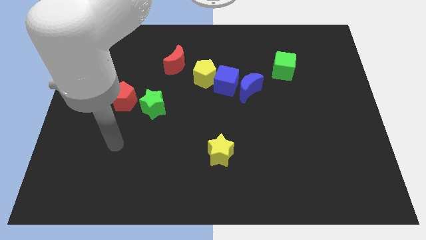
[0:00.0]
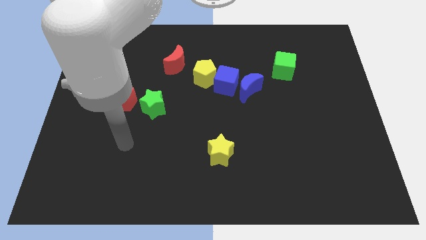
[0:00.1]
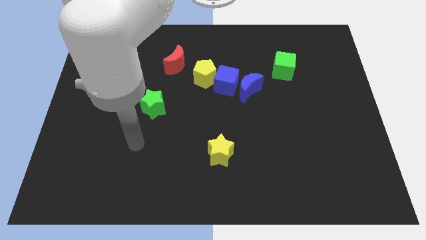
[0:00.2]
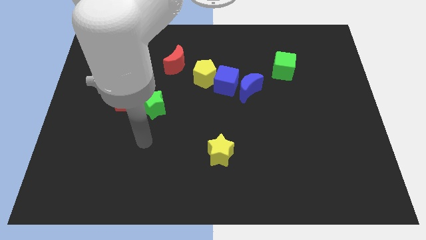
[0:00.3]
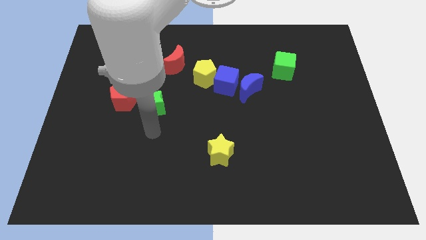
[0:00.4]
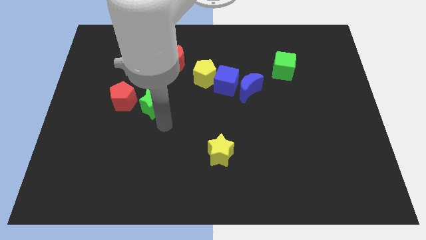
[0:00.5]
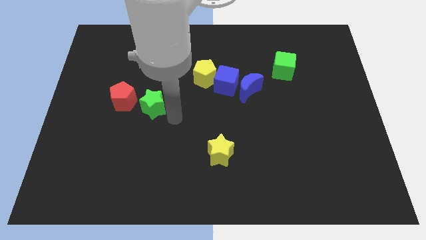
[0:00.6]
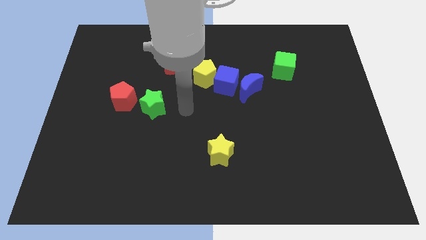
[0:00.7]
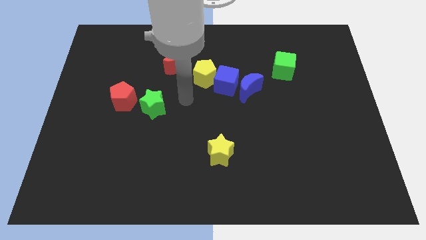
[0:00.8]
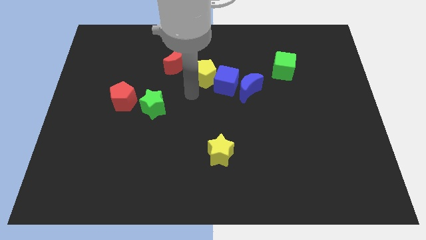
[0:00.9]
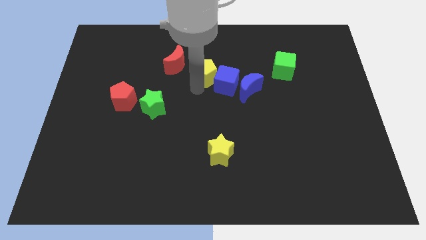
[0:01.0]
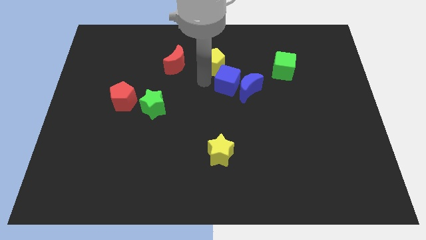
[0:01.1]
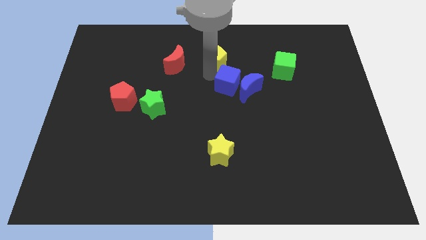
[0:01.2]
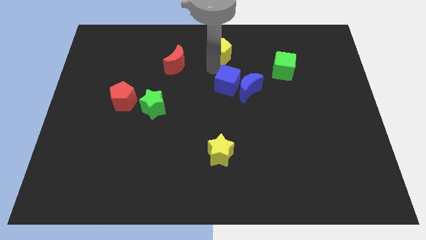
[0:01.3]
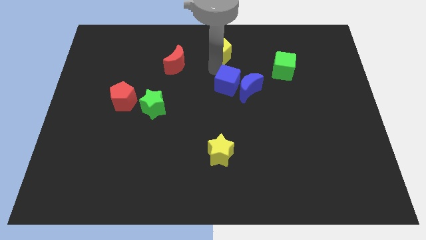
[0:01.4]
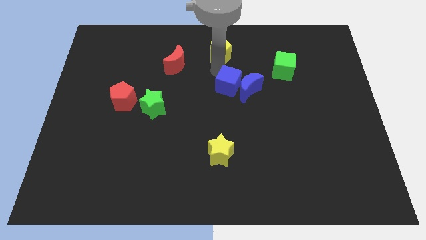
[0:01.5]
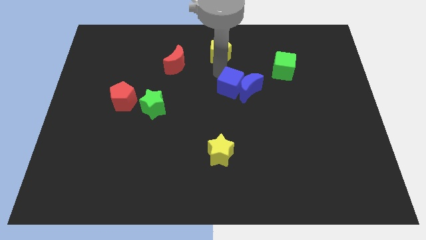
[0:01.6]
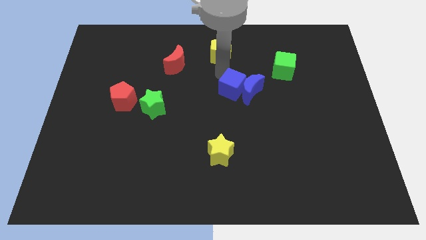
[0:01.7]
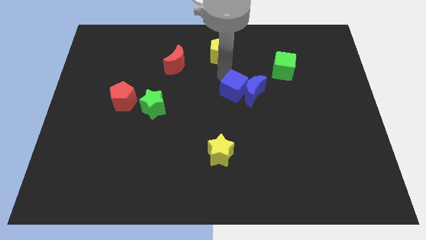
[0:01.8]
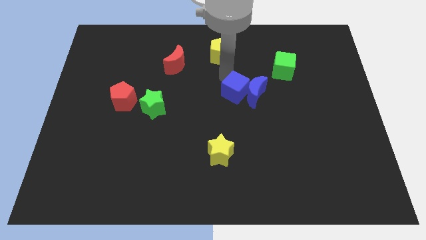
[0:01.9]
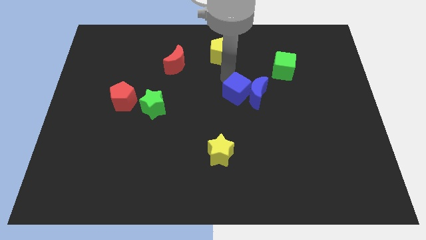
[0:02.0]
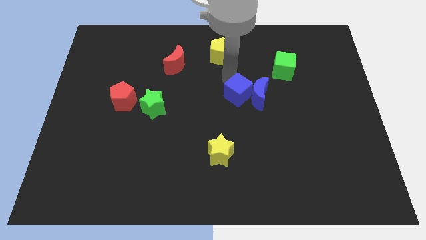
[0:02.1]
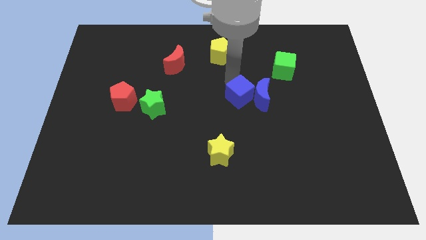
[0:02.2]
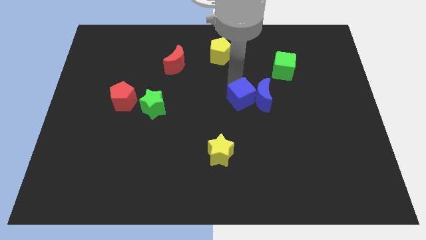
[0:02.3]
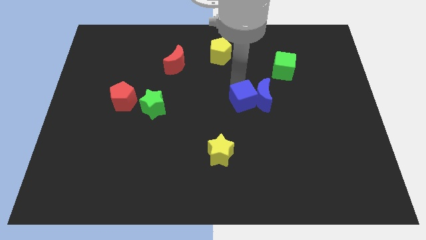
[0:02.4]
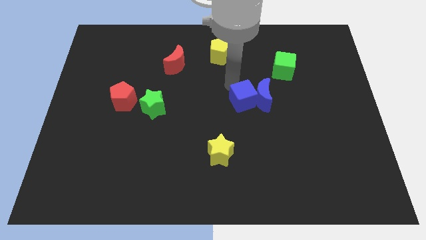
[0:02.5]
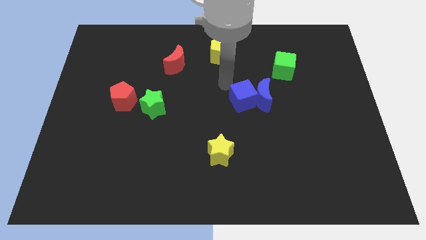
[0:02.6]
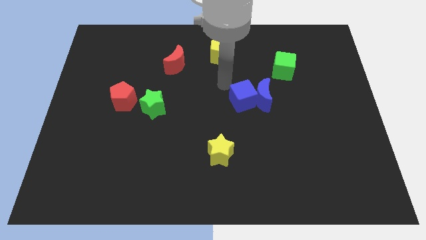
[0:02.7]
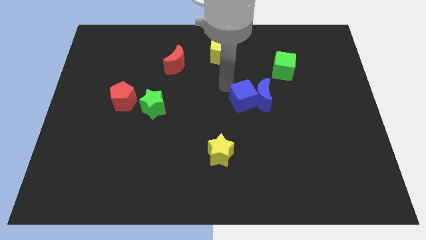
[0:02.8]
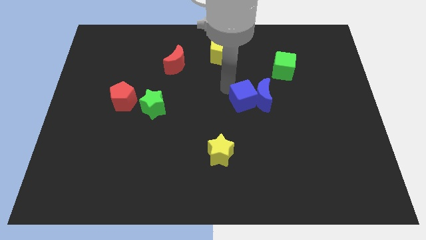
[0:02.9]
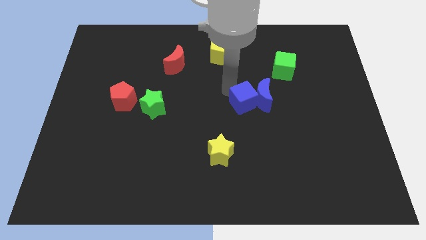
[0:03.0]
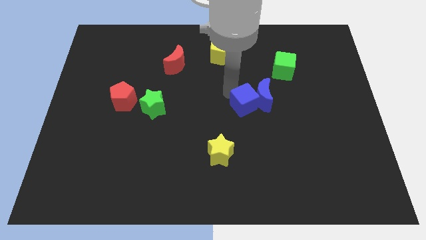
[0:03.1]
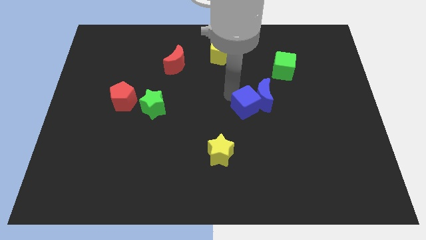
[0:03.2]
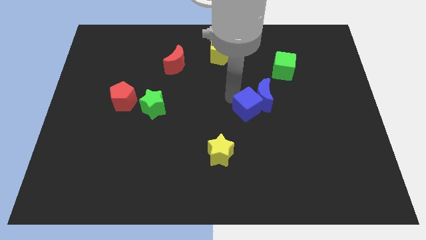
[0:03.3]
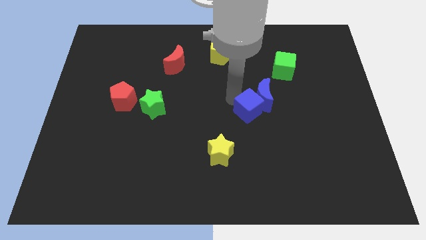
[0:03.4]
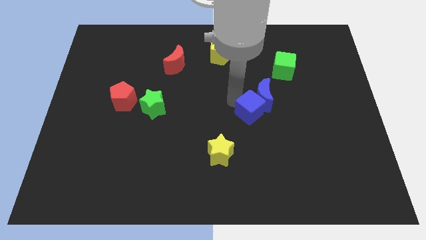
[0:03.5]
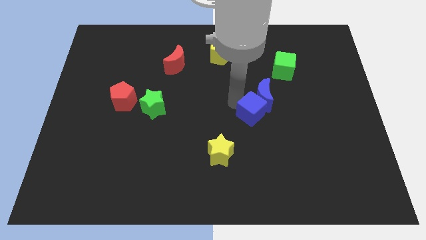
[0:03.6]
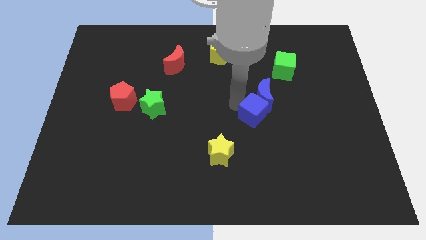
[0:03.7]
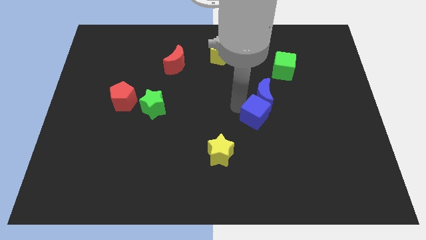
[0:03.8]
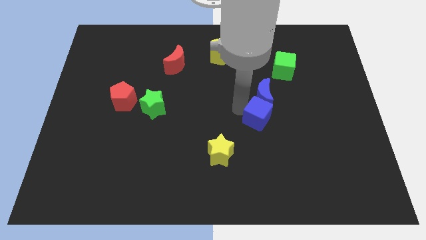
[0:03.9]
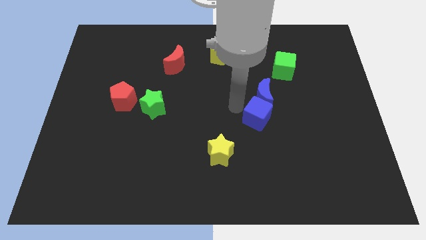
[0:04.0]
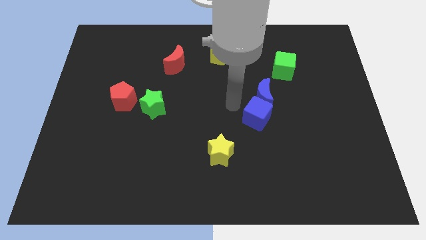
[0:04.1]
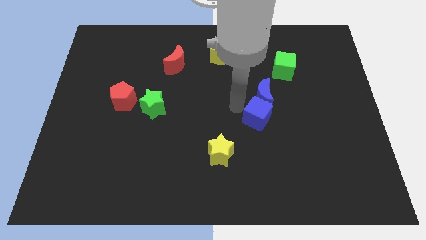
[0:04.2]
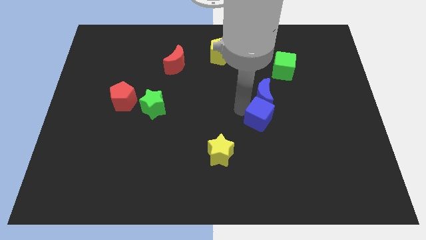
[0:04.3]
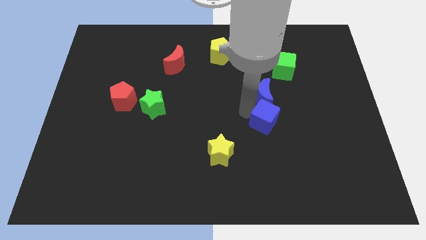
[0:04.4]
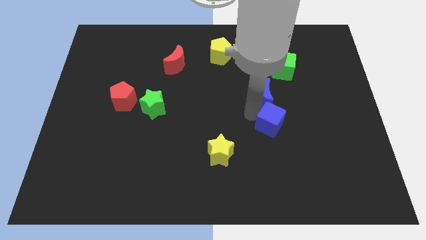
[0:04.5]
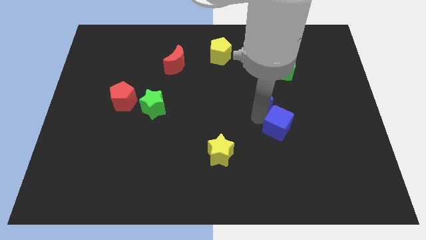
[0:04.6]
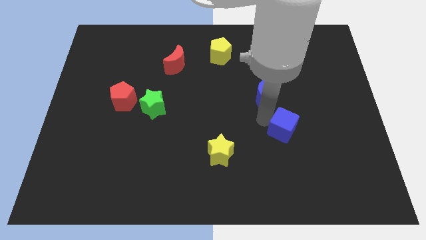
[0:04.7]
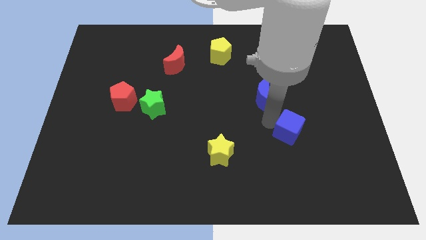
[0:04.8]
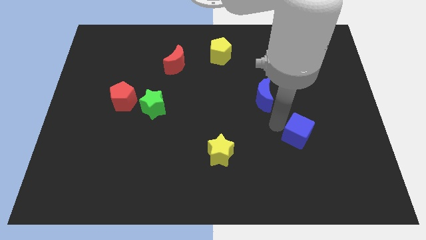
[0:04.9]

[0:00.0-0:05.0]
move the blue cube down and then right

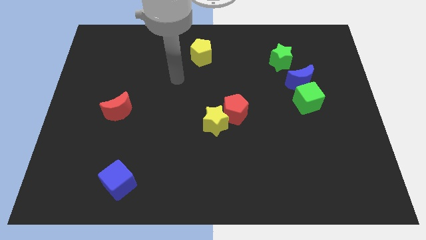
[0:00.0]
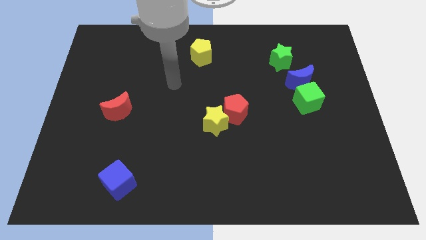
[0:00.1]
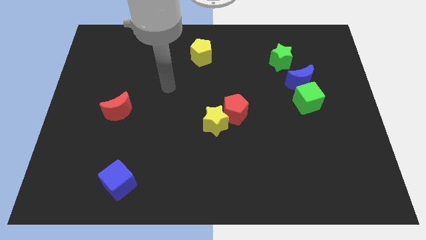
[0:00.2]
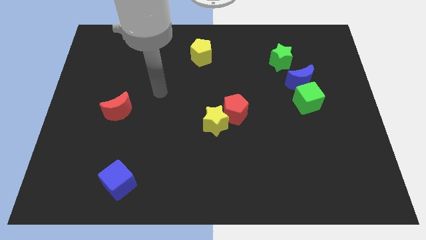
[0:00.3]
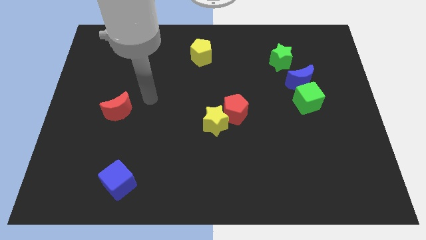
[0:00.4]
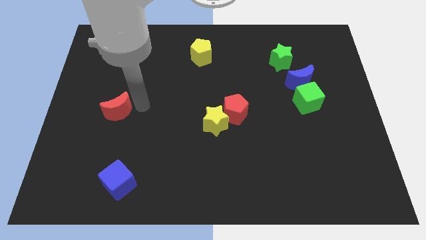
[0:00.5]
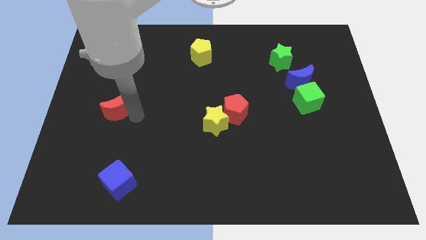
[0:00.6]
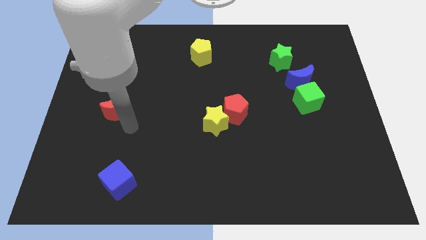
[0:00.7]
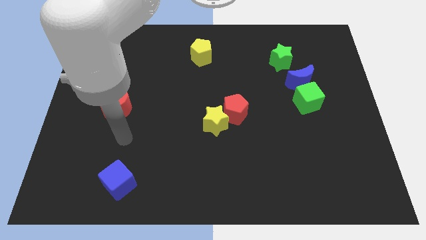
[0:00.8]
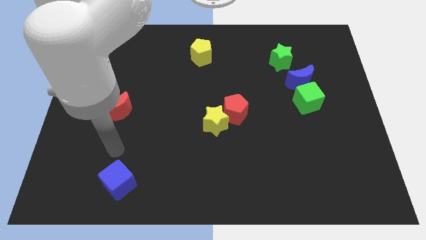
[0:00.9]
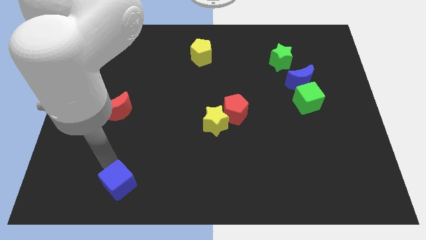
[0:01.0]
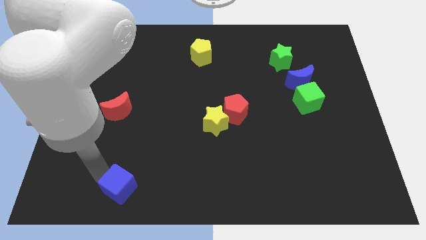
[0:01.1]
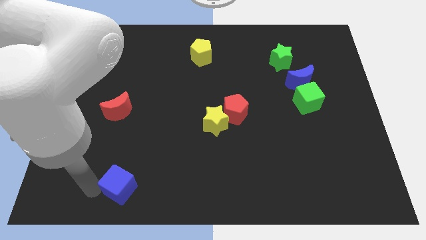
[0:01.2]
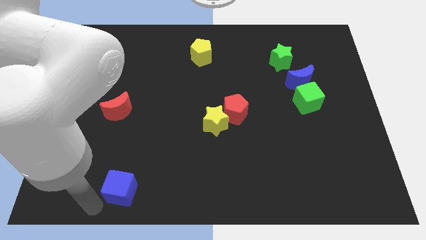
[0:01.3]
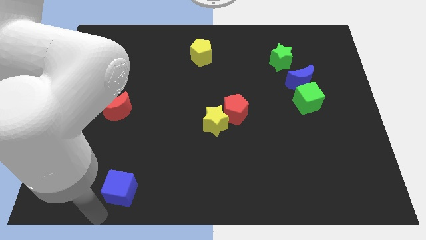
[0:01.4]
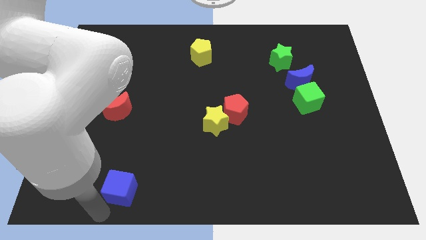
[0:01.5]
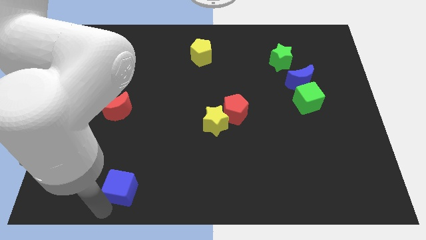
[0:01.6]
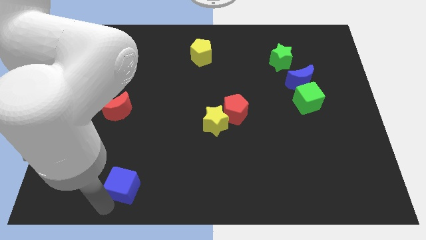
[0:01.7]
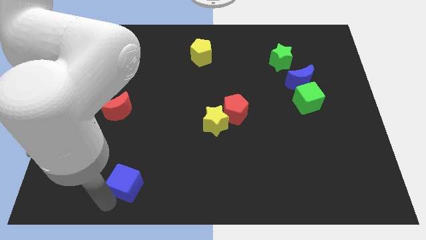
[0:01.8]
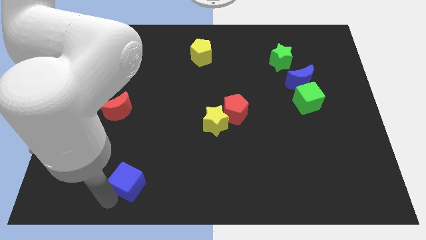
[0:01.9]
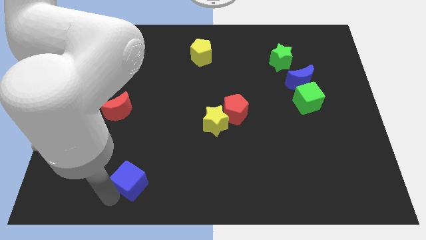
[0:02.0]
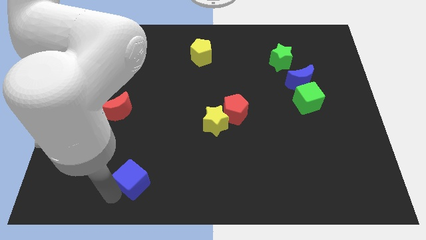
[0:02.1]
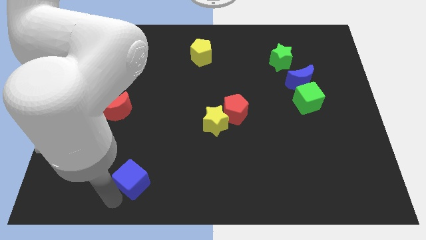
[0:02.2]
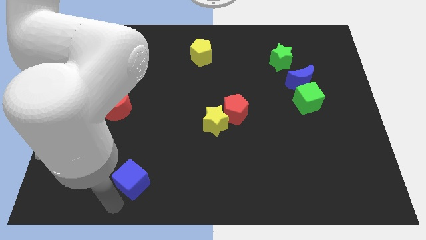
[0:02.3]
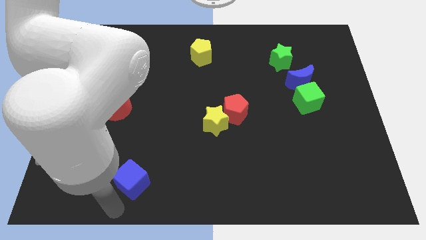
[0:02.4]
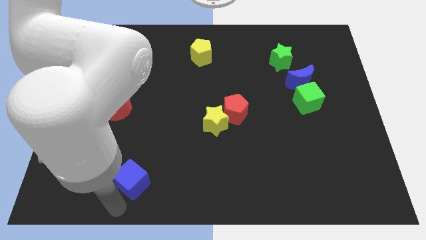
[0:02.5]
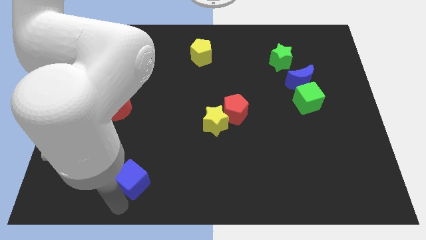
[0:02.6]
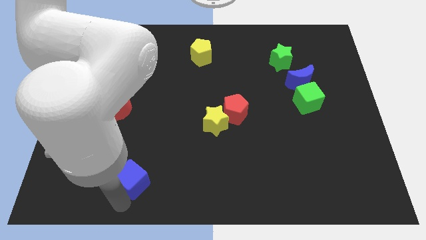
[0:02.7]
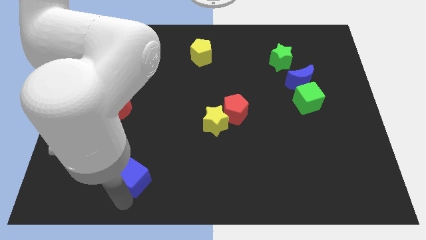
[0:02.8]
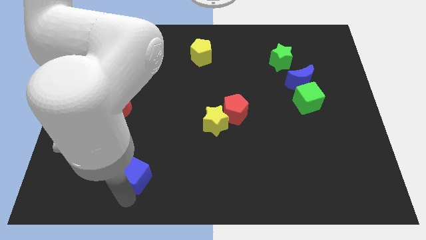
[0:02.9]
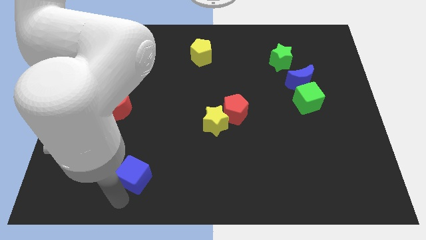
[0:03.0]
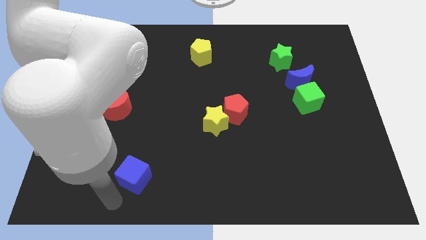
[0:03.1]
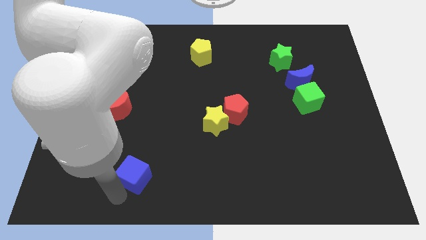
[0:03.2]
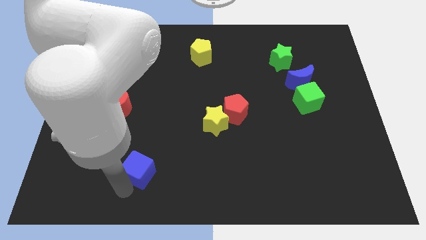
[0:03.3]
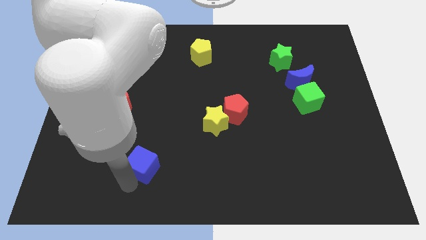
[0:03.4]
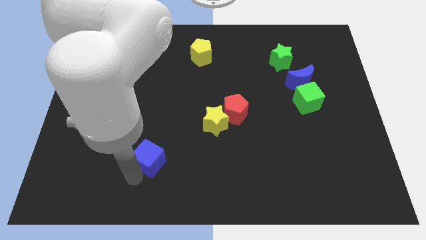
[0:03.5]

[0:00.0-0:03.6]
push the blue cube up and to the right somewhat
